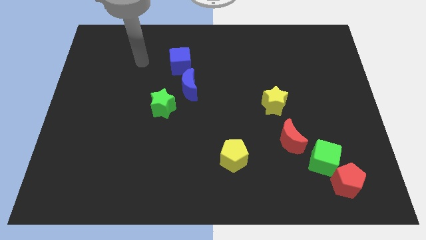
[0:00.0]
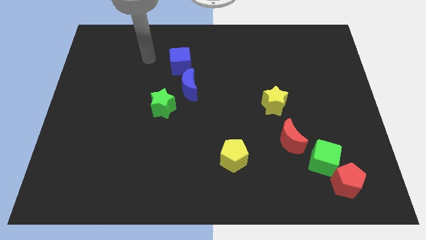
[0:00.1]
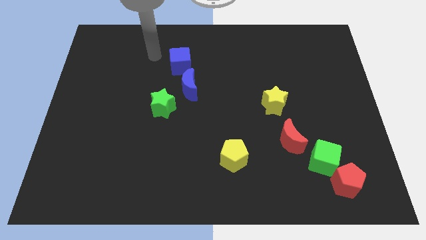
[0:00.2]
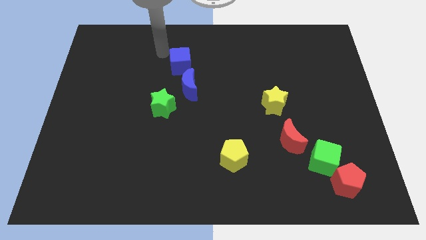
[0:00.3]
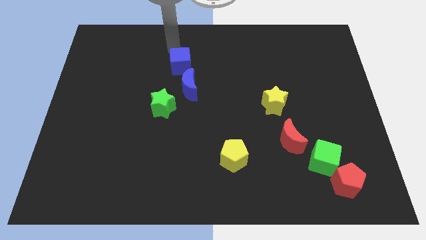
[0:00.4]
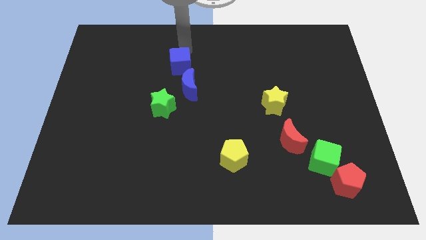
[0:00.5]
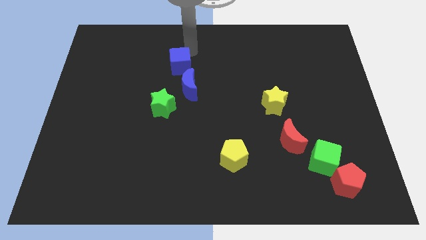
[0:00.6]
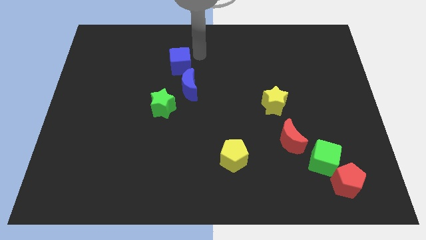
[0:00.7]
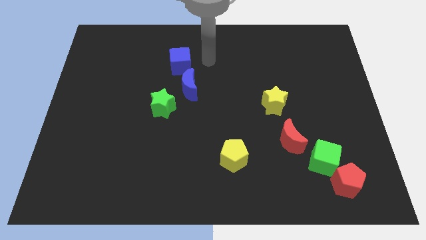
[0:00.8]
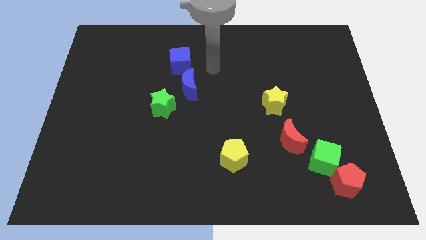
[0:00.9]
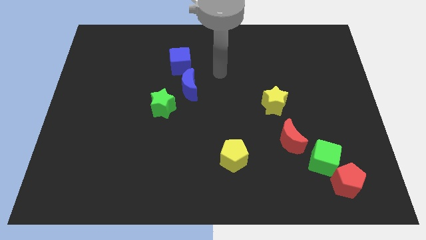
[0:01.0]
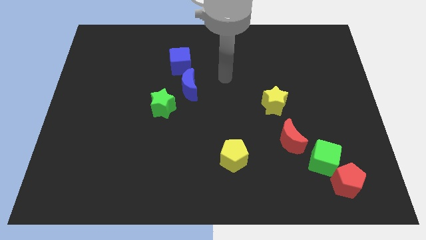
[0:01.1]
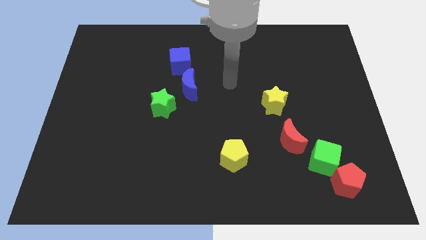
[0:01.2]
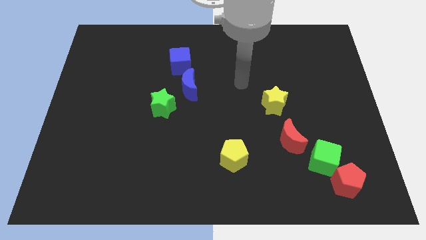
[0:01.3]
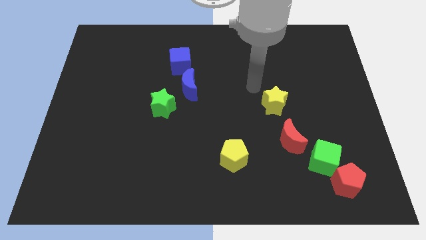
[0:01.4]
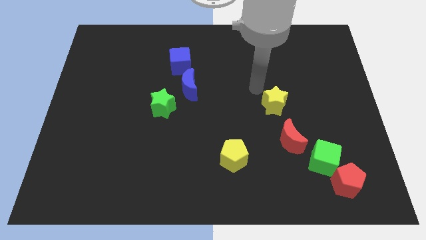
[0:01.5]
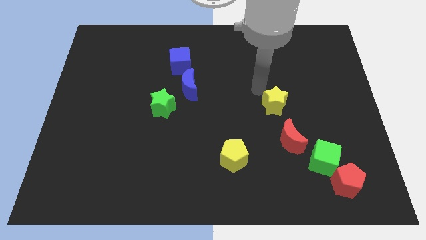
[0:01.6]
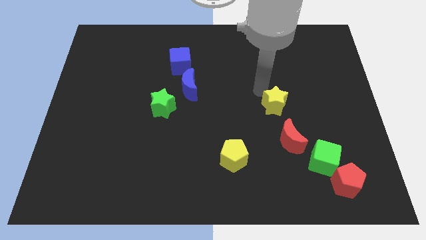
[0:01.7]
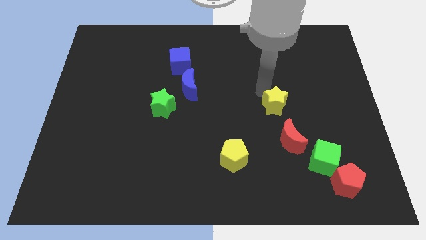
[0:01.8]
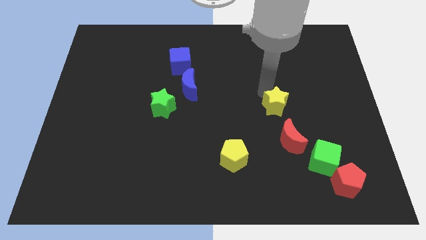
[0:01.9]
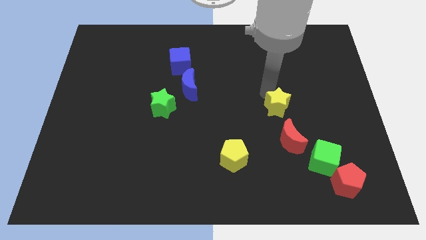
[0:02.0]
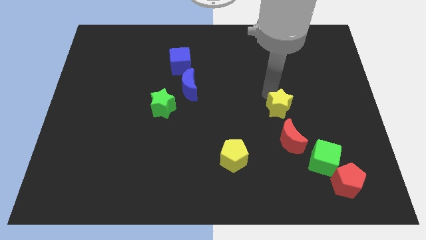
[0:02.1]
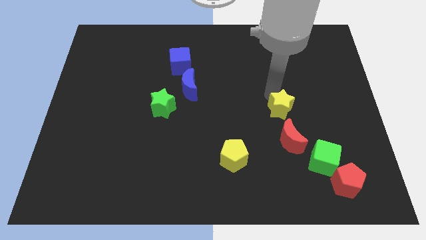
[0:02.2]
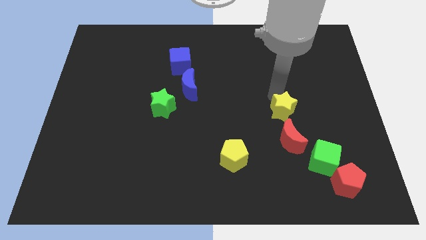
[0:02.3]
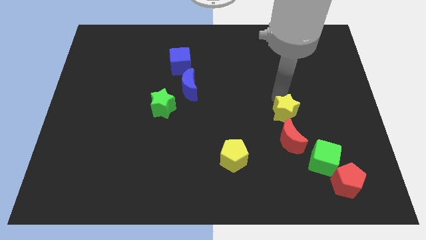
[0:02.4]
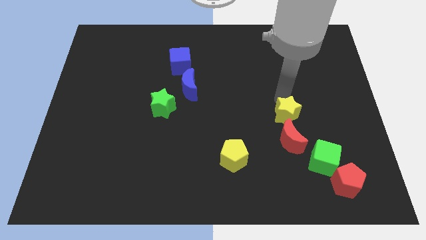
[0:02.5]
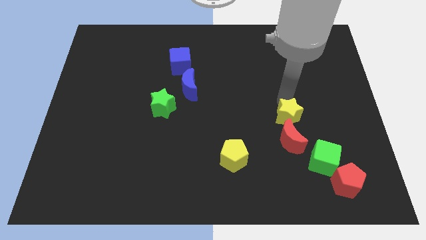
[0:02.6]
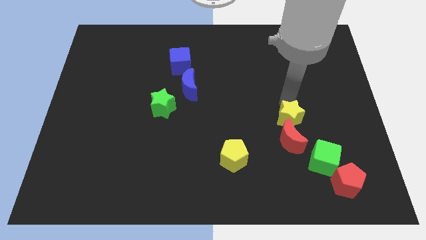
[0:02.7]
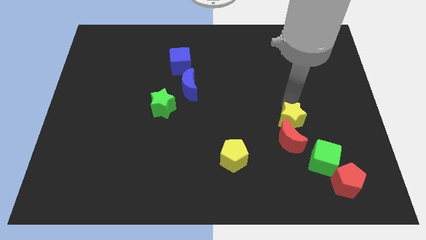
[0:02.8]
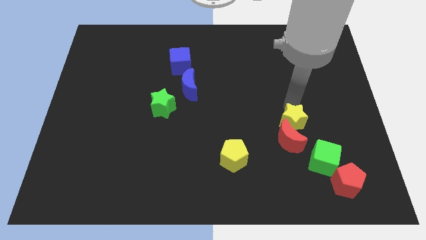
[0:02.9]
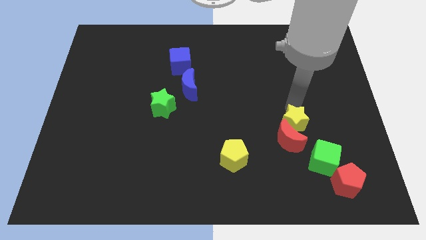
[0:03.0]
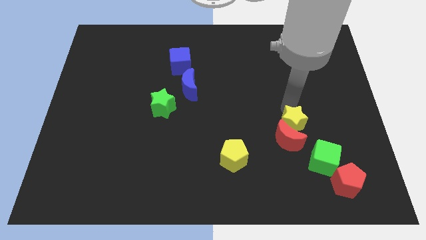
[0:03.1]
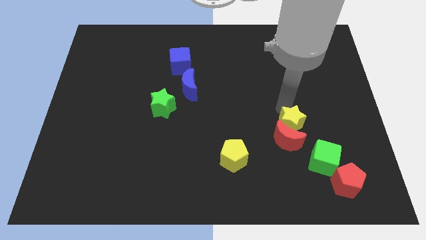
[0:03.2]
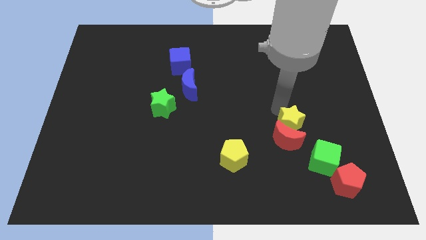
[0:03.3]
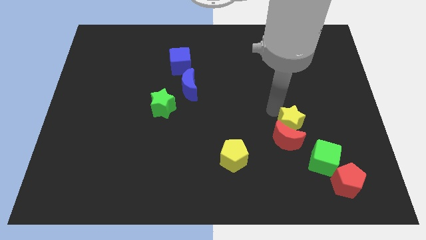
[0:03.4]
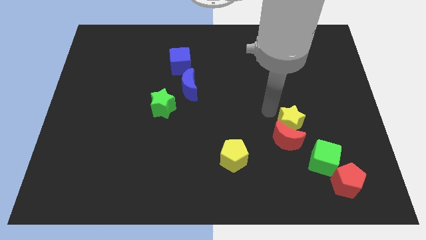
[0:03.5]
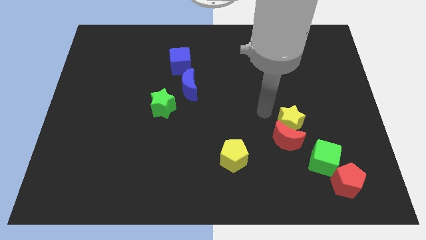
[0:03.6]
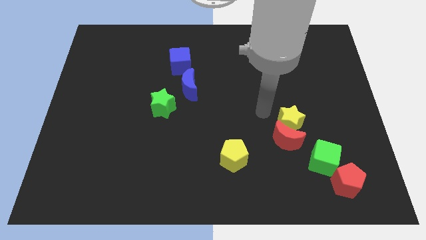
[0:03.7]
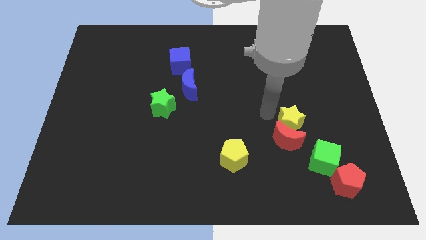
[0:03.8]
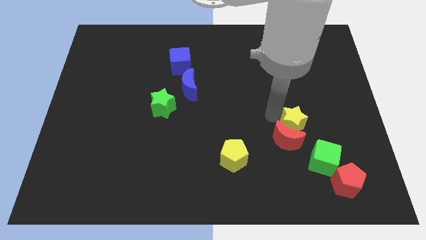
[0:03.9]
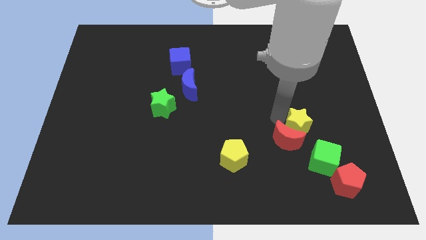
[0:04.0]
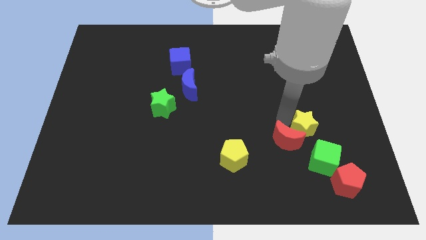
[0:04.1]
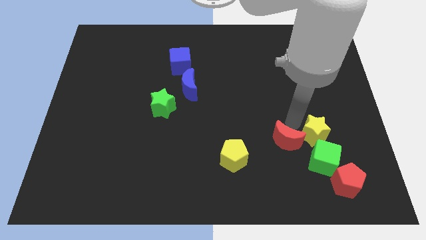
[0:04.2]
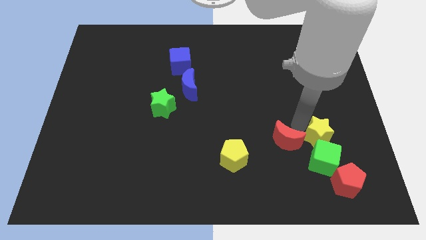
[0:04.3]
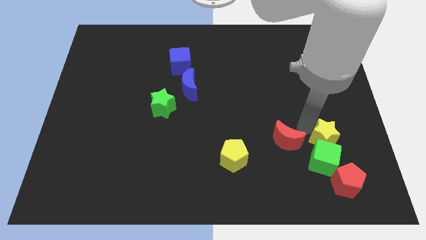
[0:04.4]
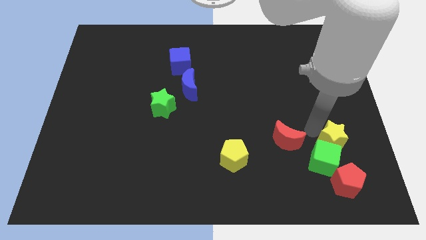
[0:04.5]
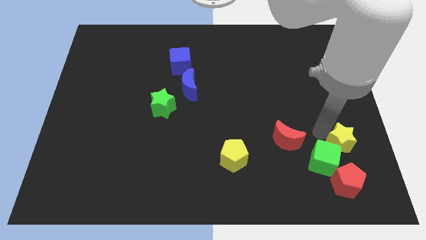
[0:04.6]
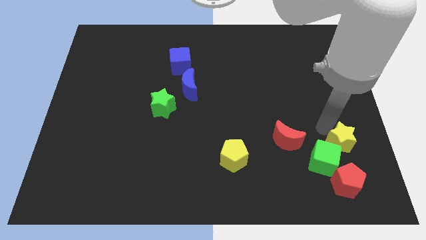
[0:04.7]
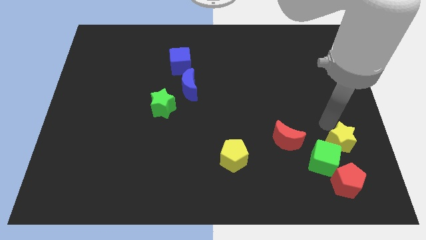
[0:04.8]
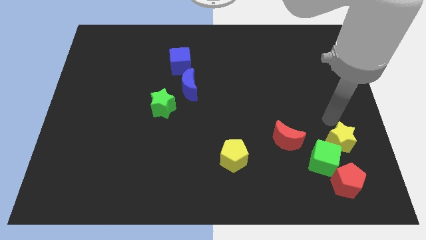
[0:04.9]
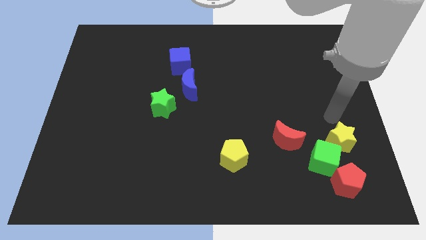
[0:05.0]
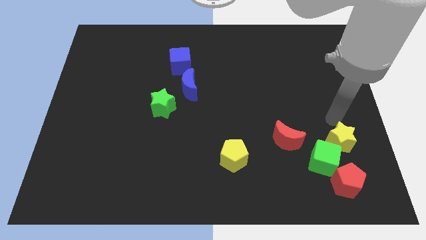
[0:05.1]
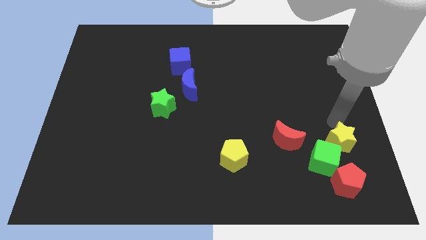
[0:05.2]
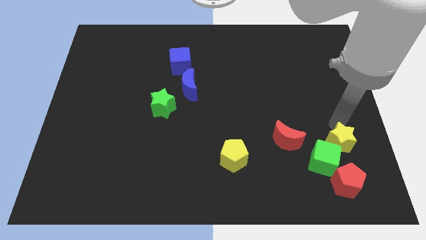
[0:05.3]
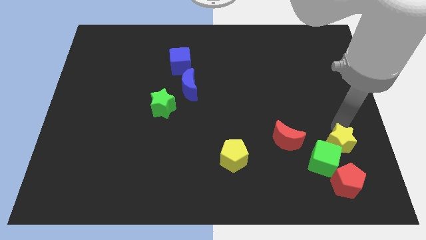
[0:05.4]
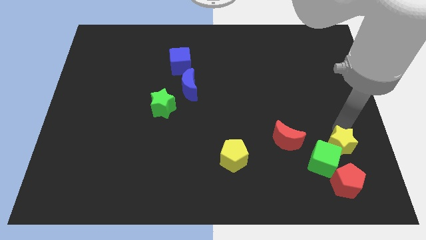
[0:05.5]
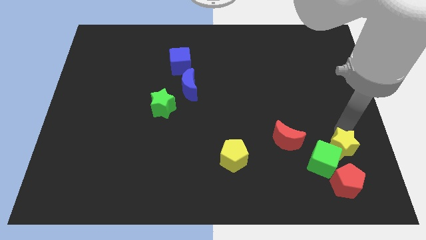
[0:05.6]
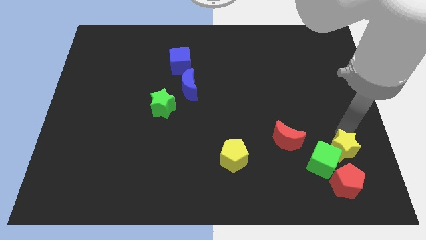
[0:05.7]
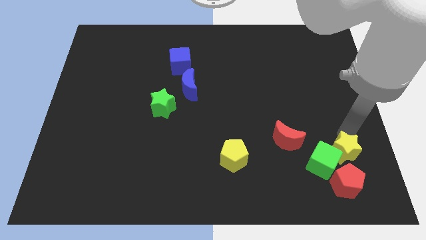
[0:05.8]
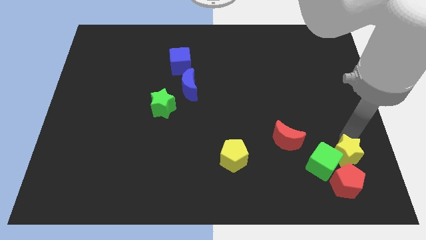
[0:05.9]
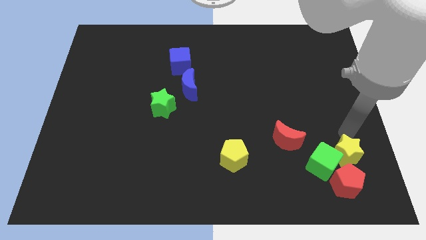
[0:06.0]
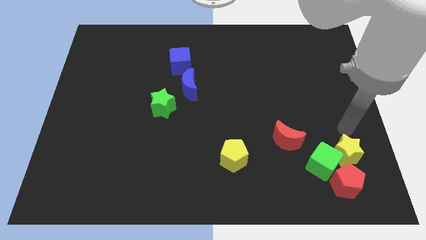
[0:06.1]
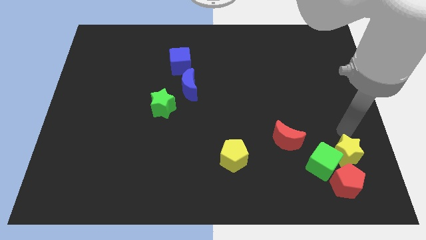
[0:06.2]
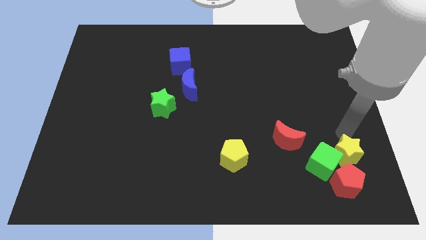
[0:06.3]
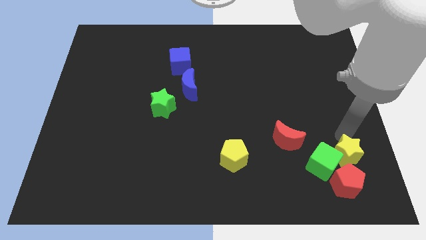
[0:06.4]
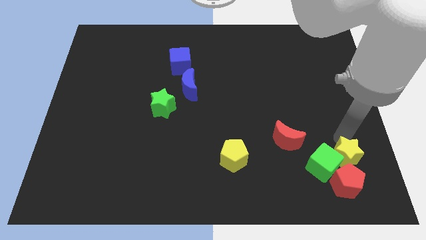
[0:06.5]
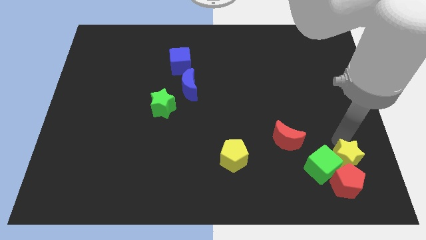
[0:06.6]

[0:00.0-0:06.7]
move the yellow star close to the red pentagon

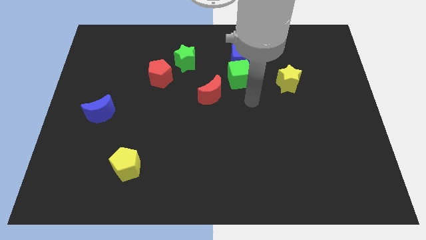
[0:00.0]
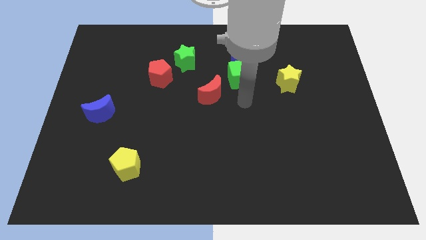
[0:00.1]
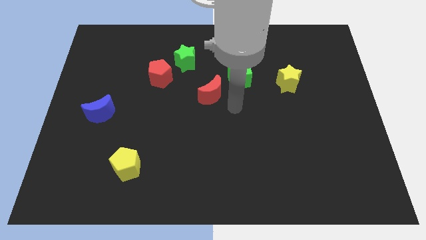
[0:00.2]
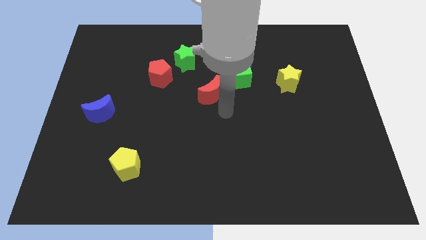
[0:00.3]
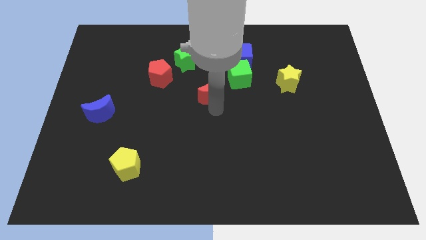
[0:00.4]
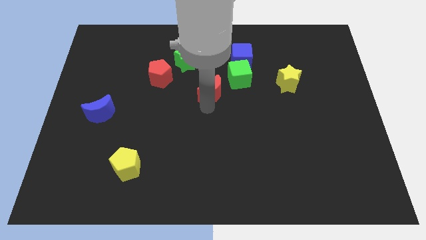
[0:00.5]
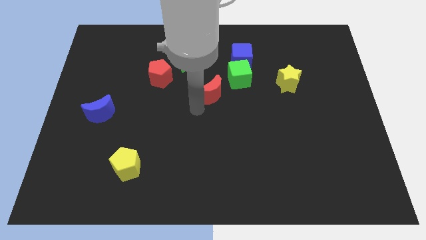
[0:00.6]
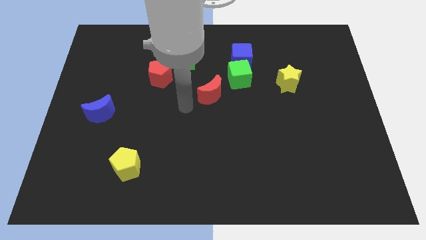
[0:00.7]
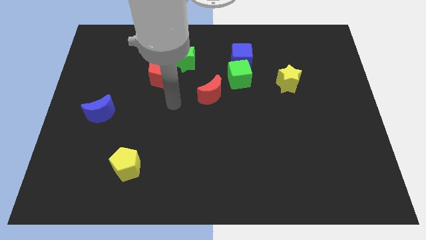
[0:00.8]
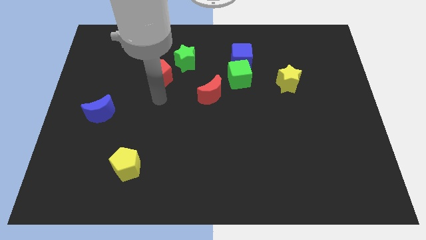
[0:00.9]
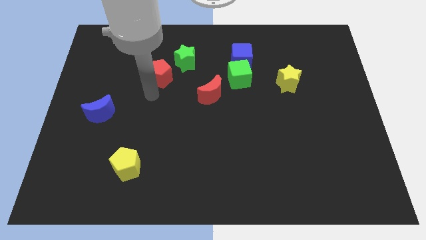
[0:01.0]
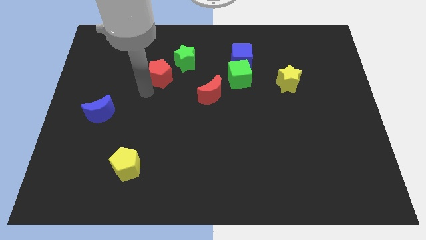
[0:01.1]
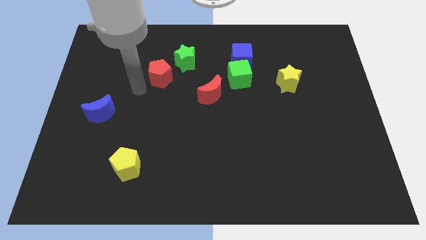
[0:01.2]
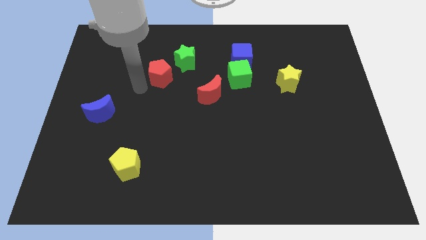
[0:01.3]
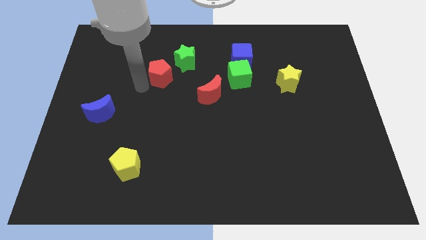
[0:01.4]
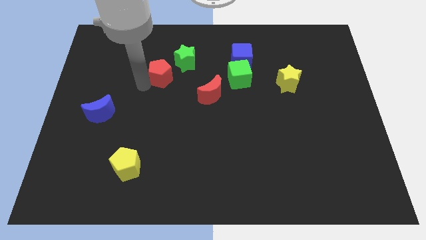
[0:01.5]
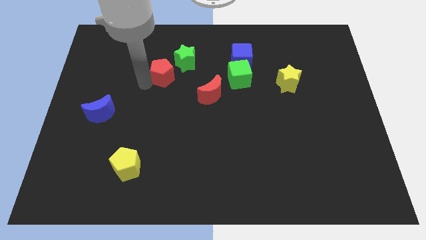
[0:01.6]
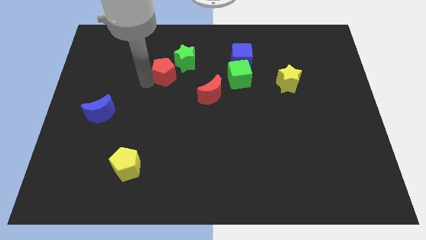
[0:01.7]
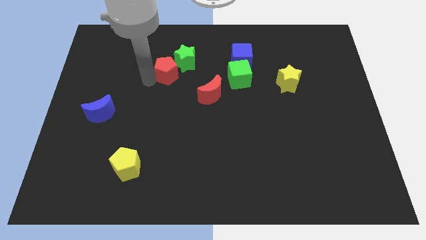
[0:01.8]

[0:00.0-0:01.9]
move the red pentagon towards the green star
